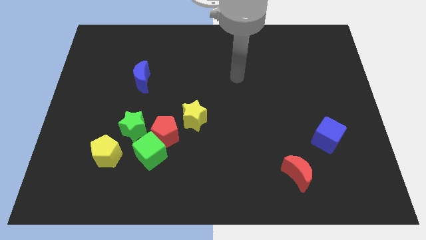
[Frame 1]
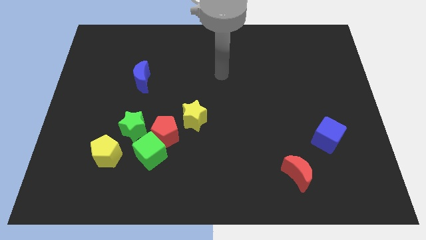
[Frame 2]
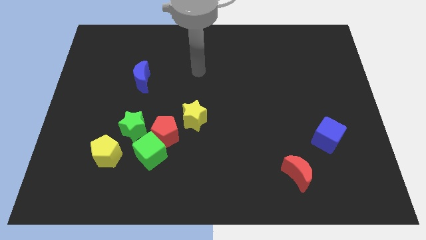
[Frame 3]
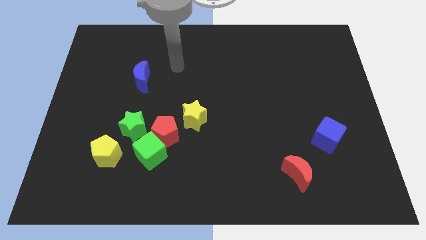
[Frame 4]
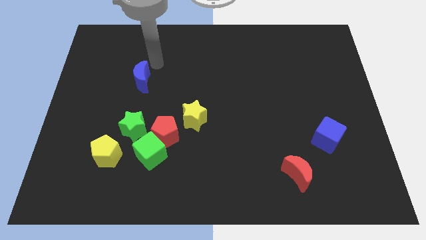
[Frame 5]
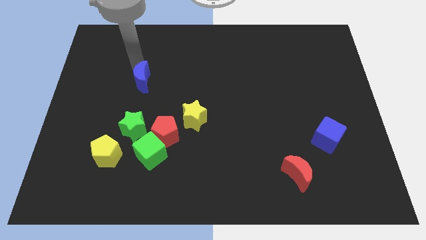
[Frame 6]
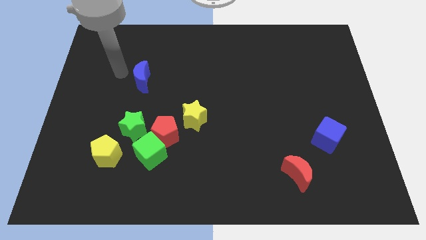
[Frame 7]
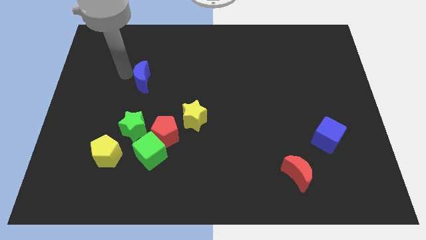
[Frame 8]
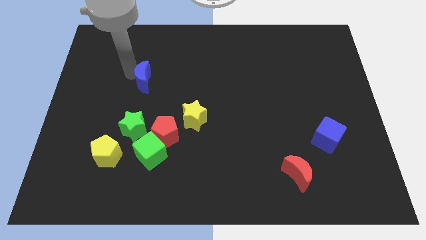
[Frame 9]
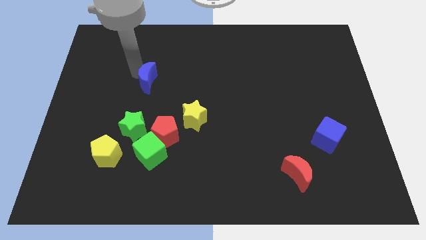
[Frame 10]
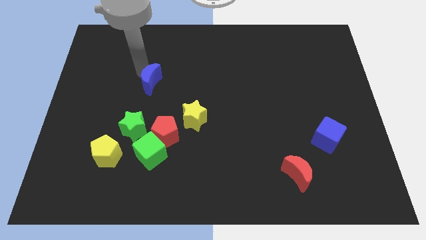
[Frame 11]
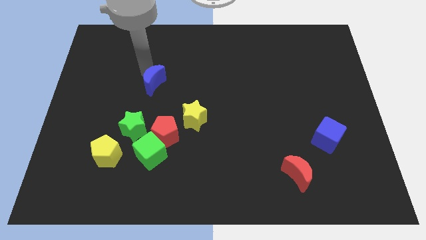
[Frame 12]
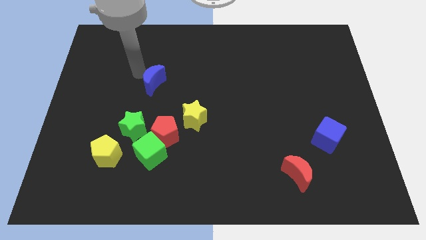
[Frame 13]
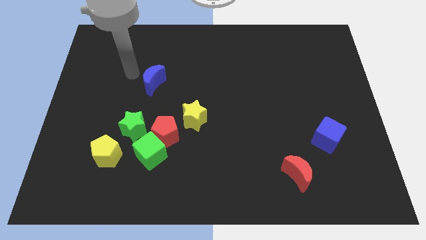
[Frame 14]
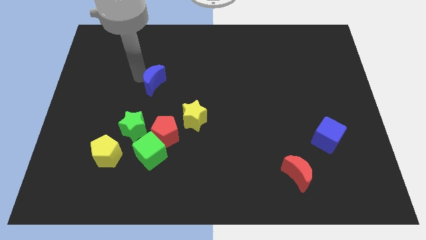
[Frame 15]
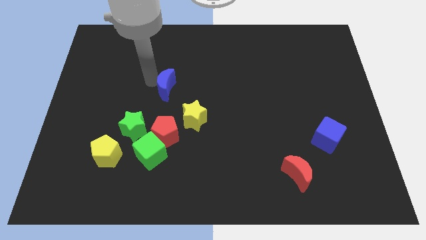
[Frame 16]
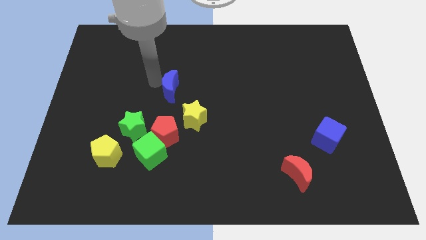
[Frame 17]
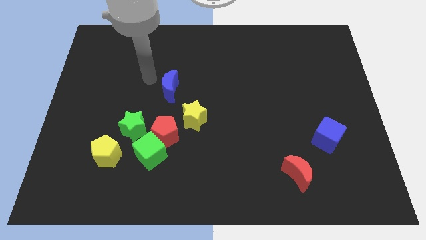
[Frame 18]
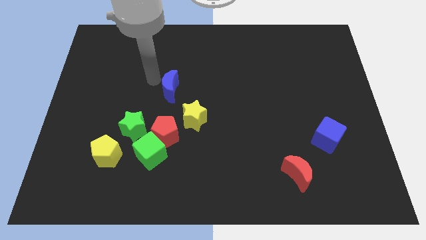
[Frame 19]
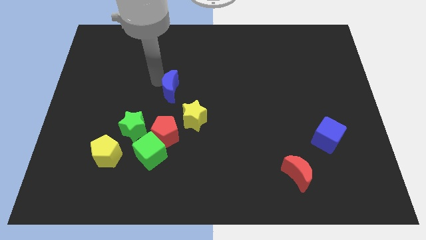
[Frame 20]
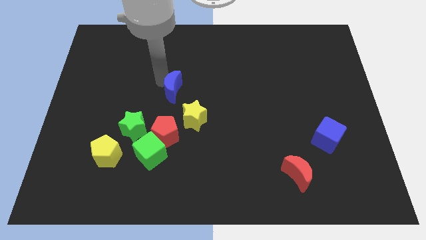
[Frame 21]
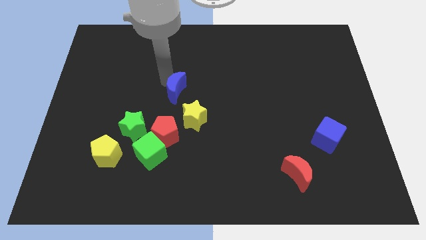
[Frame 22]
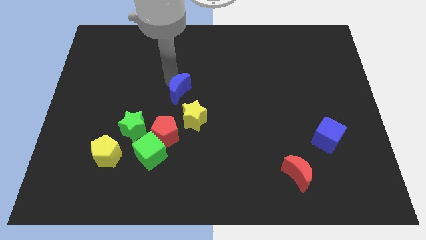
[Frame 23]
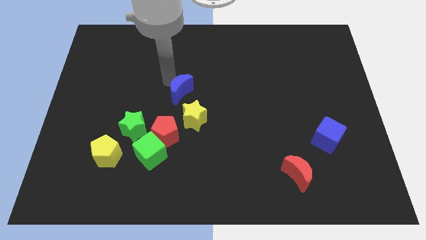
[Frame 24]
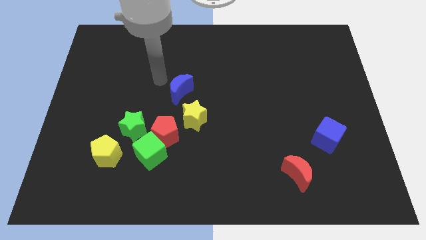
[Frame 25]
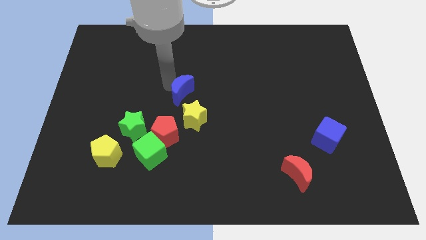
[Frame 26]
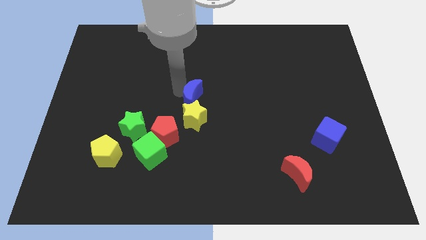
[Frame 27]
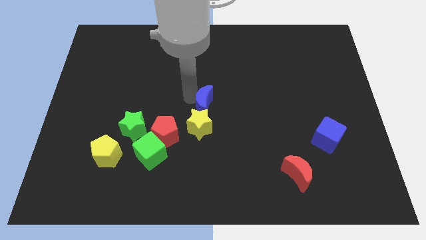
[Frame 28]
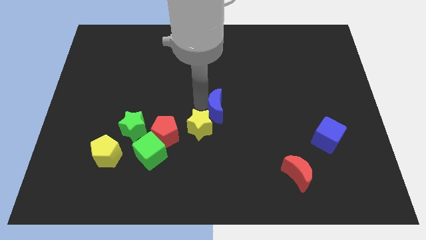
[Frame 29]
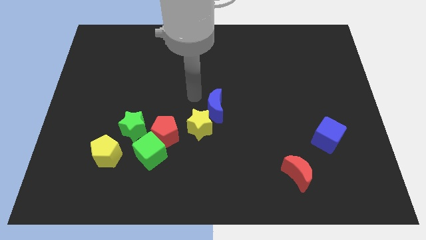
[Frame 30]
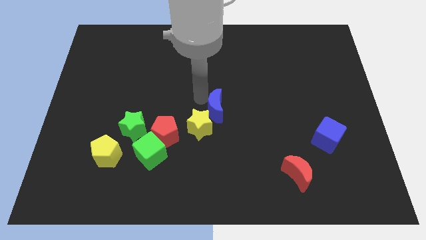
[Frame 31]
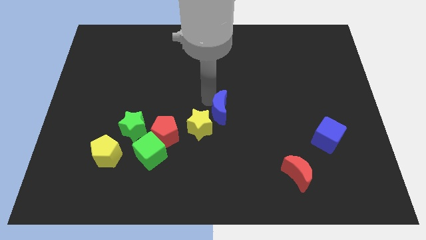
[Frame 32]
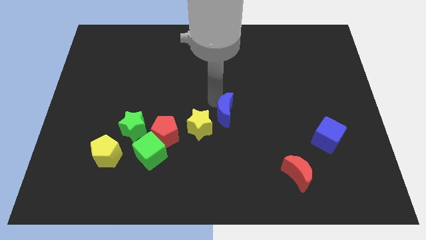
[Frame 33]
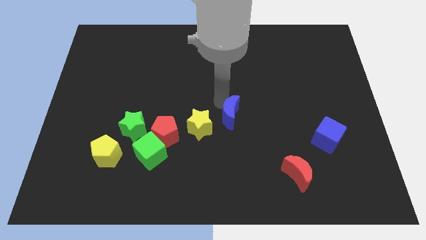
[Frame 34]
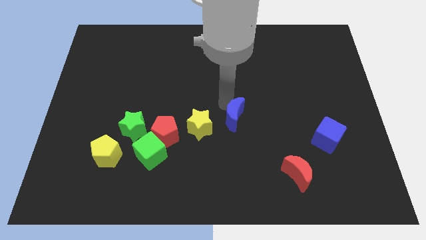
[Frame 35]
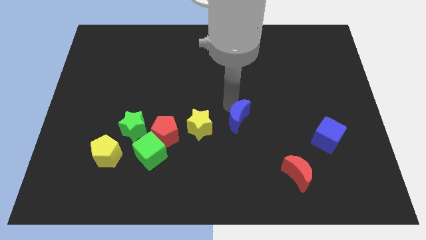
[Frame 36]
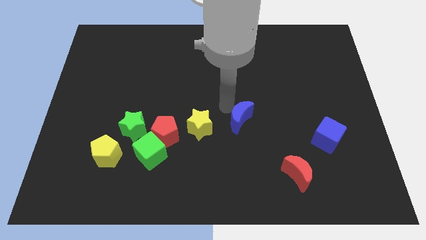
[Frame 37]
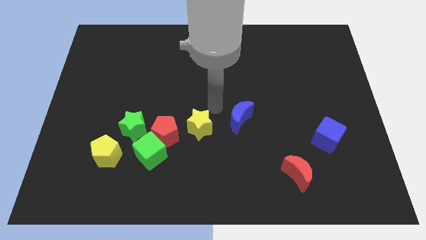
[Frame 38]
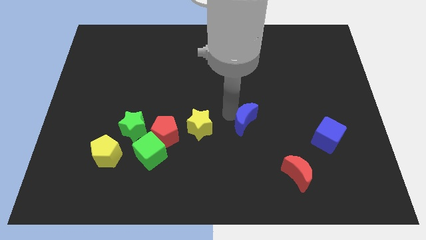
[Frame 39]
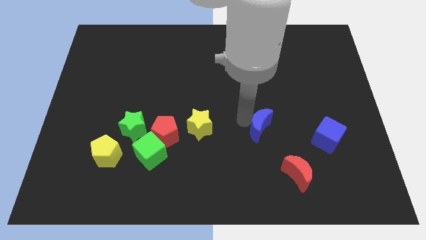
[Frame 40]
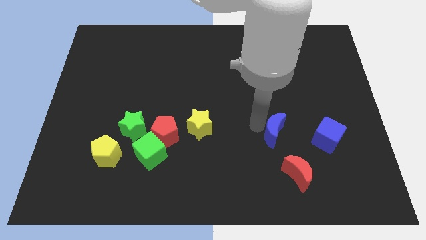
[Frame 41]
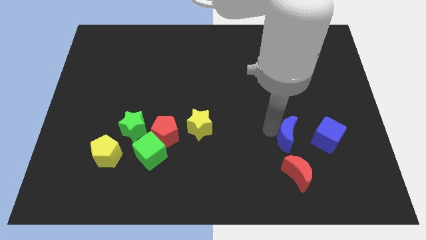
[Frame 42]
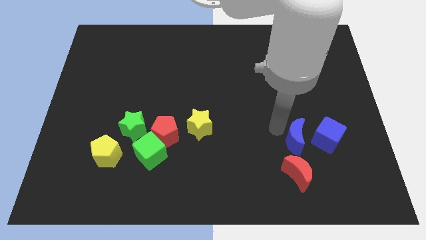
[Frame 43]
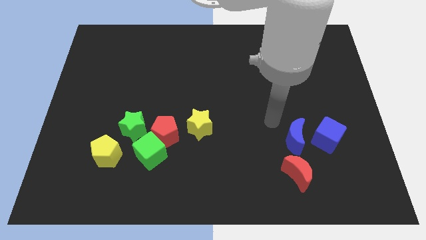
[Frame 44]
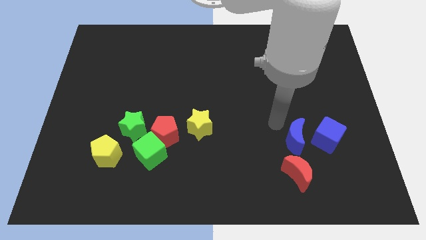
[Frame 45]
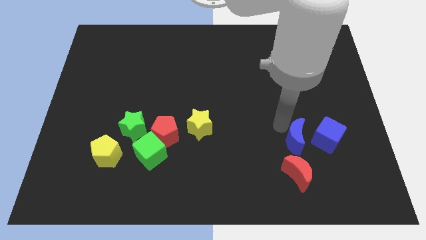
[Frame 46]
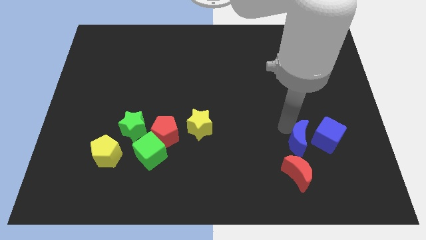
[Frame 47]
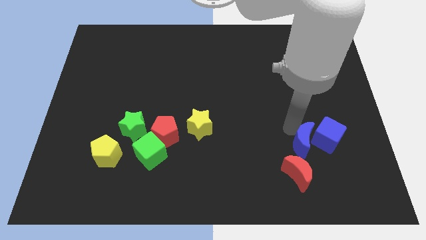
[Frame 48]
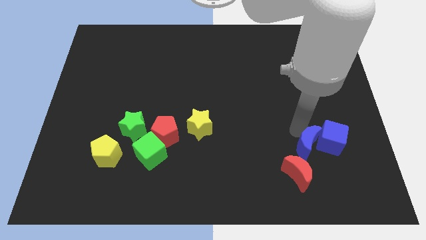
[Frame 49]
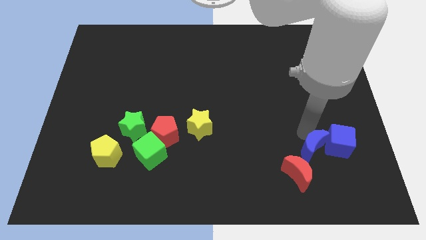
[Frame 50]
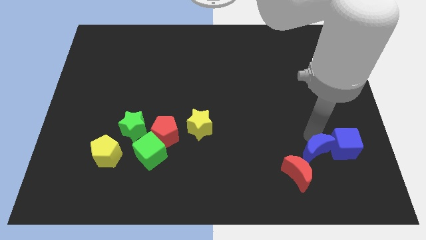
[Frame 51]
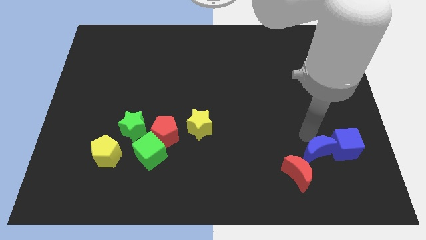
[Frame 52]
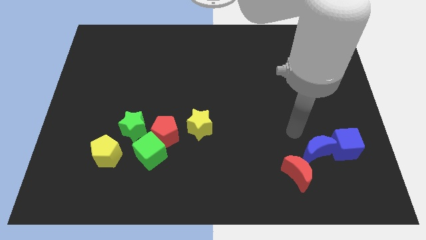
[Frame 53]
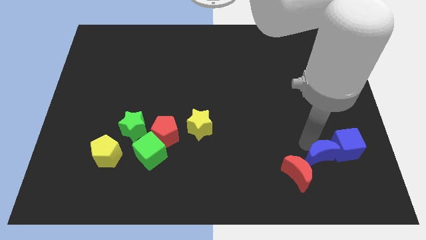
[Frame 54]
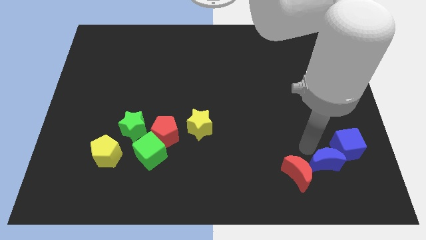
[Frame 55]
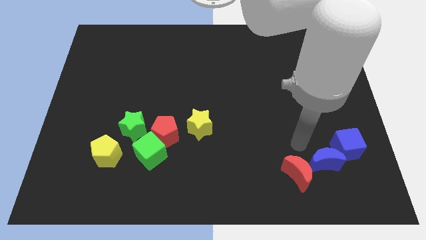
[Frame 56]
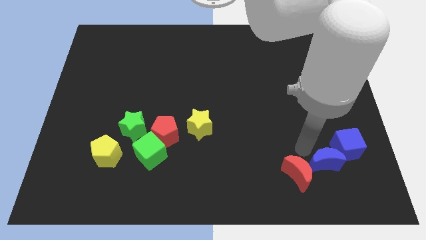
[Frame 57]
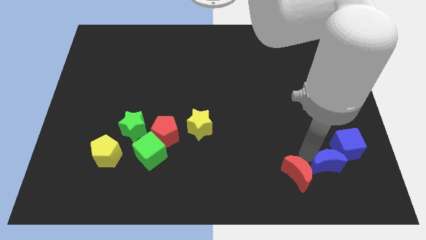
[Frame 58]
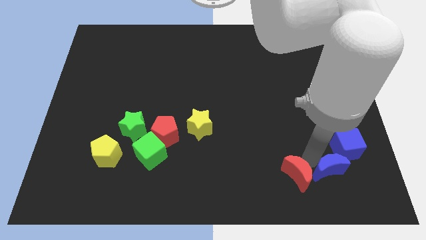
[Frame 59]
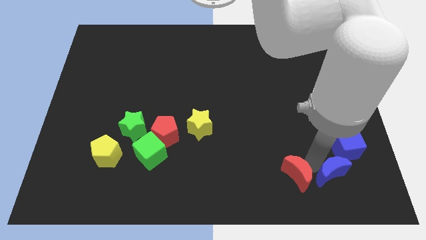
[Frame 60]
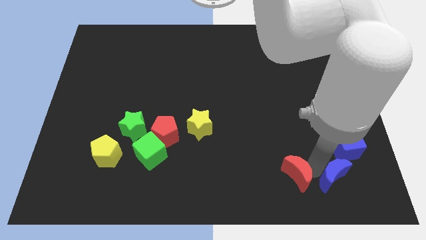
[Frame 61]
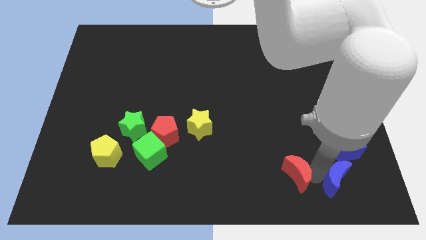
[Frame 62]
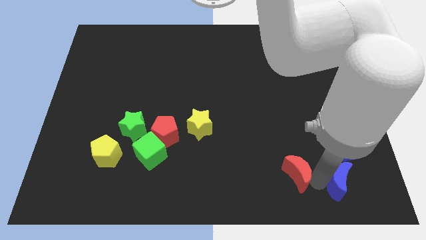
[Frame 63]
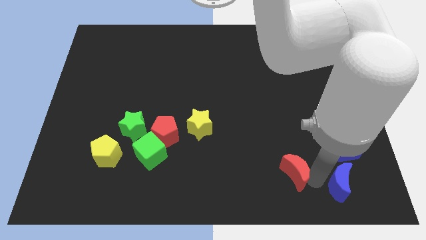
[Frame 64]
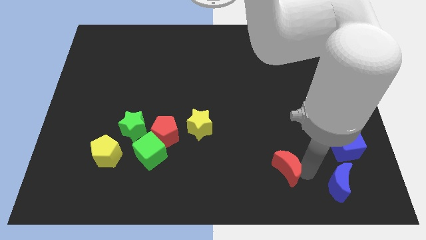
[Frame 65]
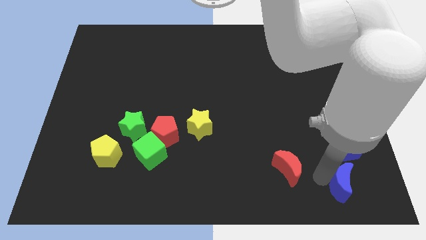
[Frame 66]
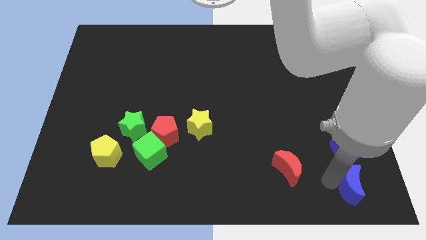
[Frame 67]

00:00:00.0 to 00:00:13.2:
put the blue moon to the bottom right
